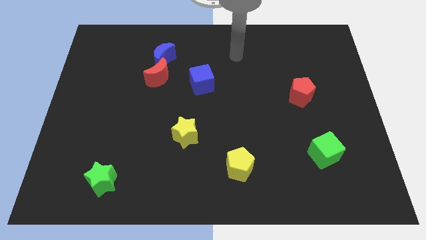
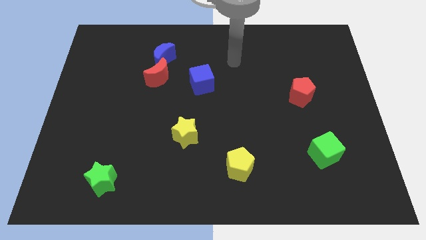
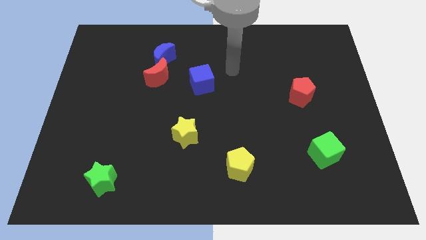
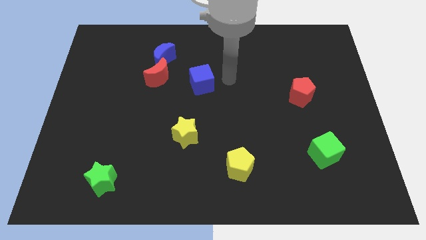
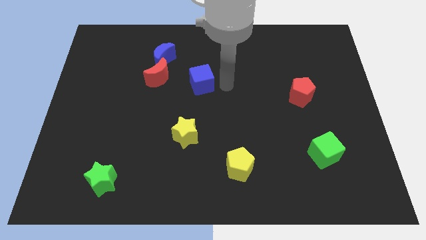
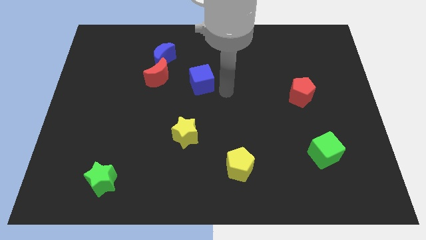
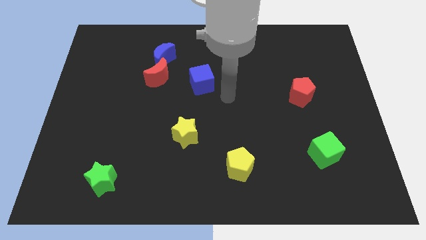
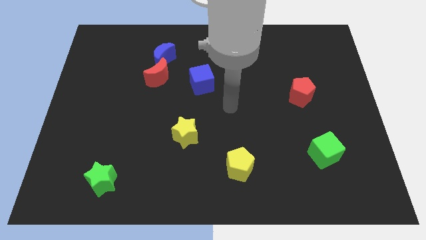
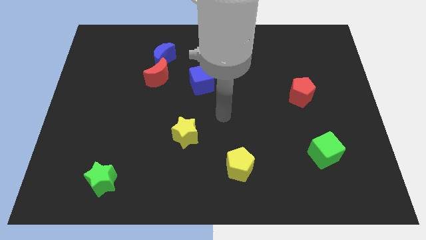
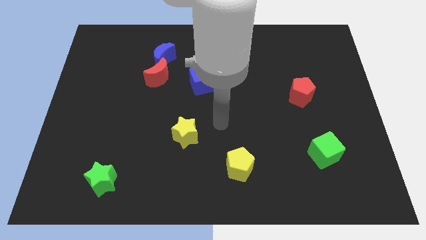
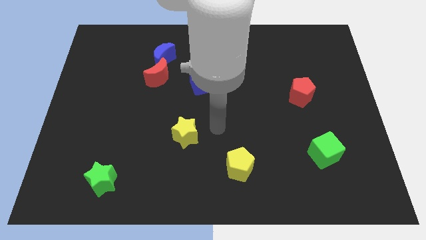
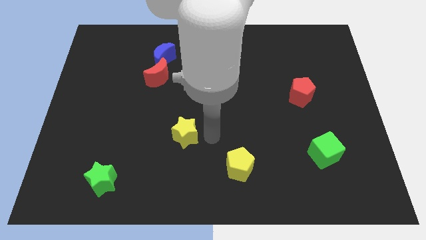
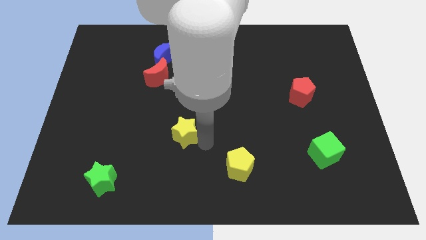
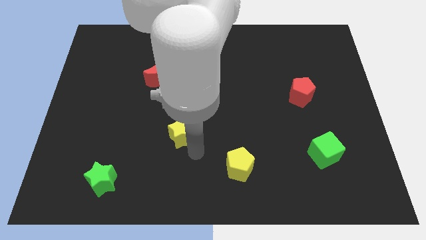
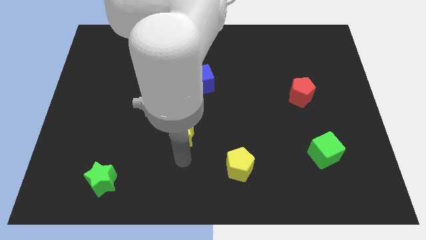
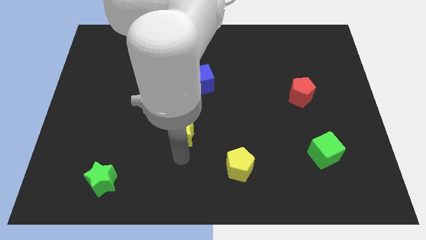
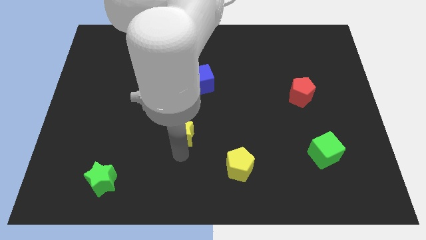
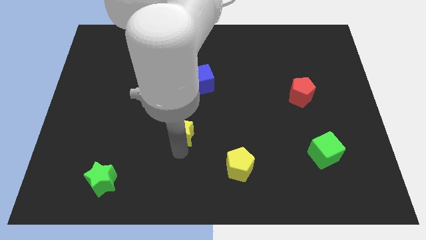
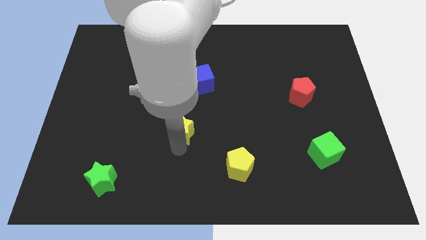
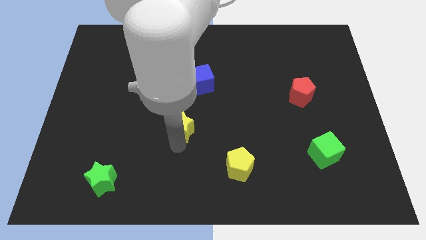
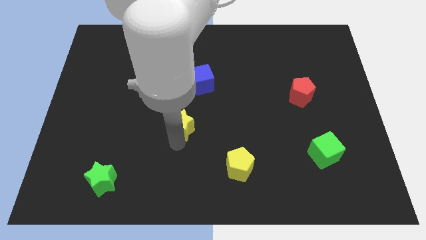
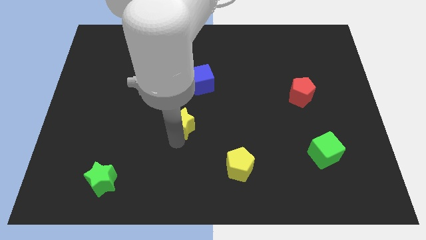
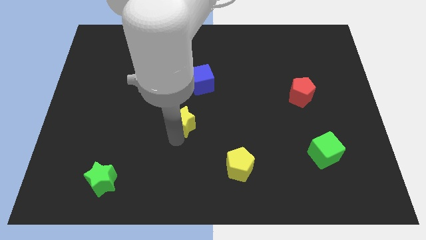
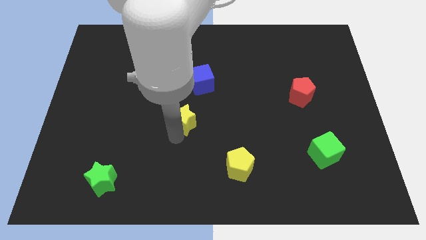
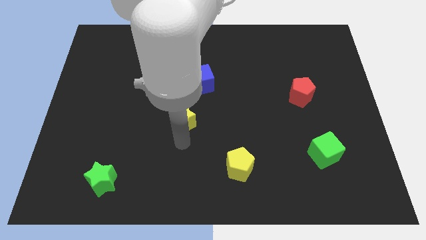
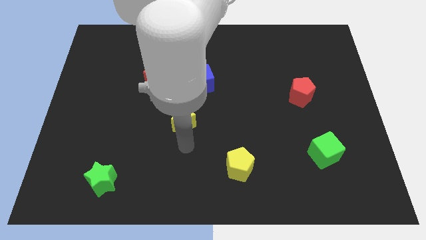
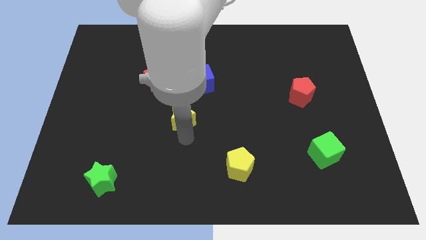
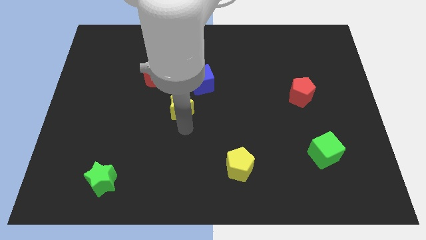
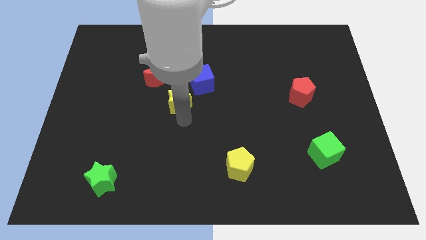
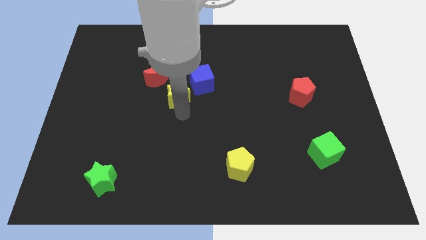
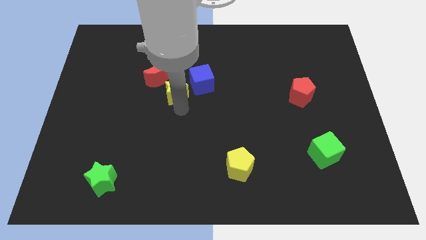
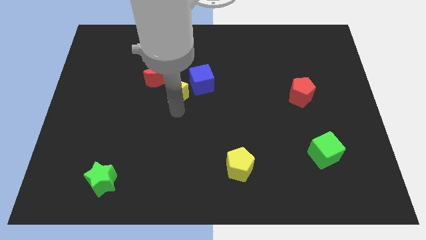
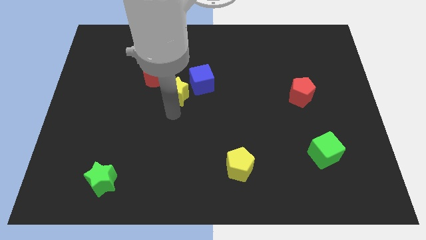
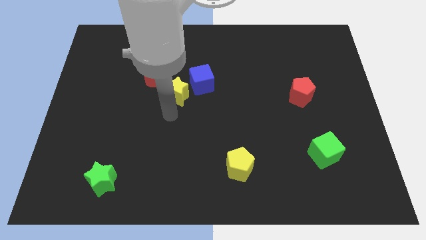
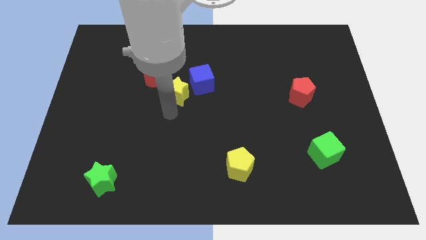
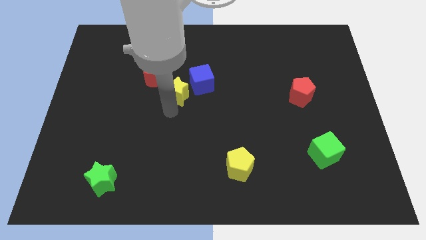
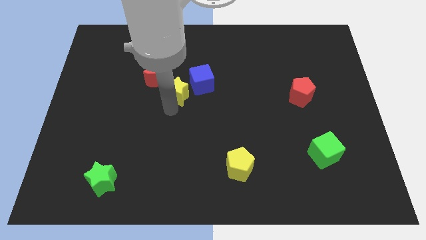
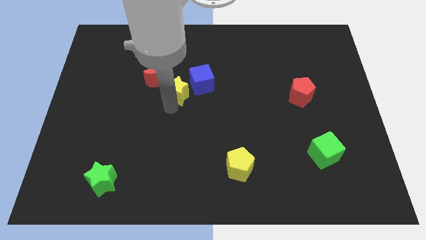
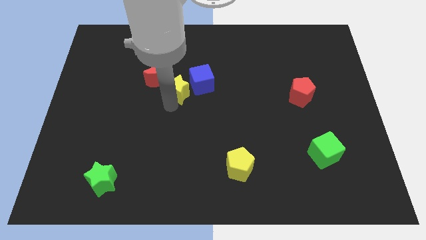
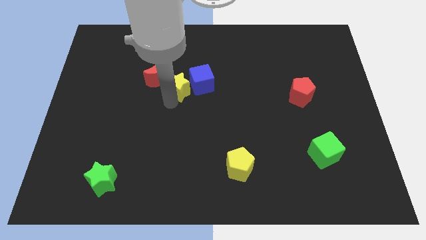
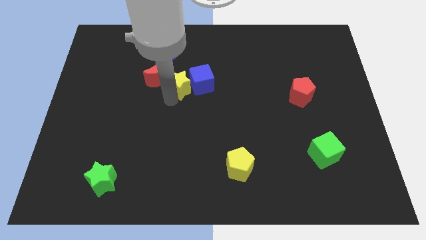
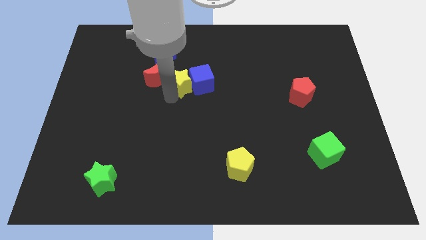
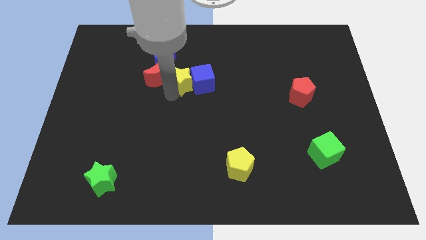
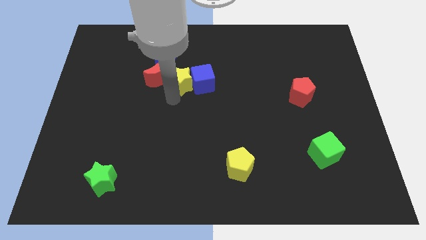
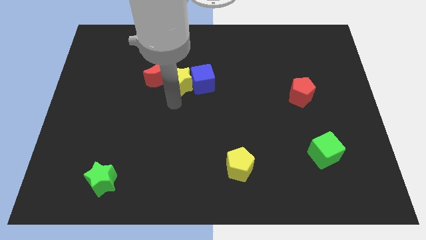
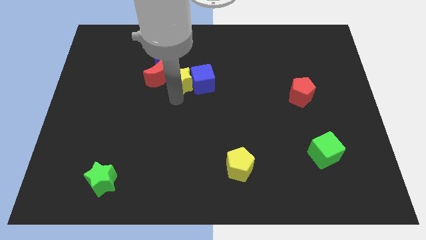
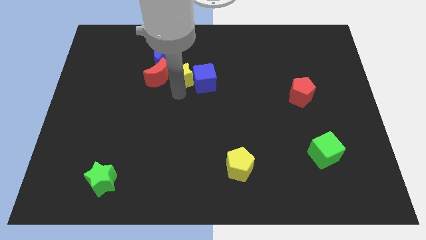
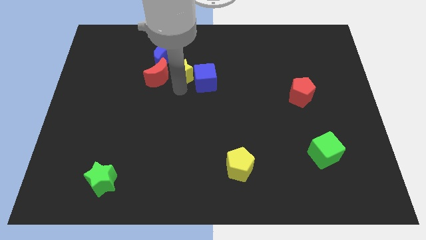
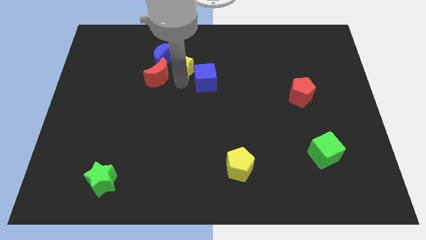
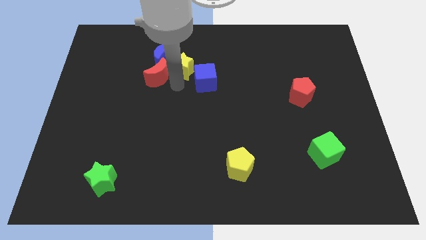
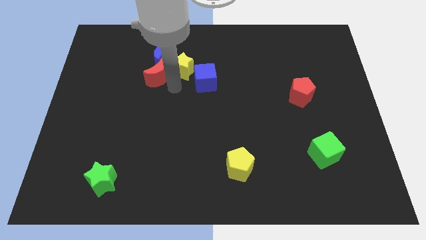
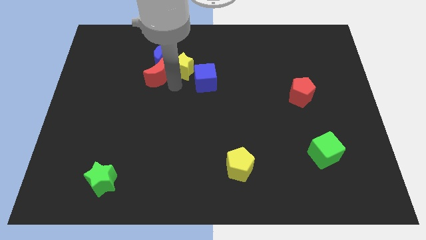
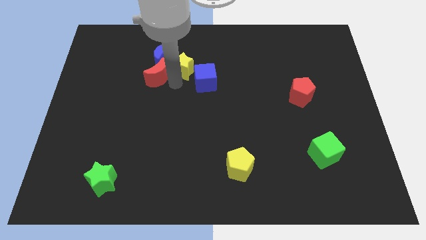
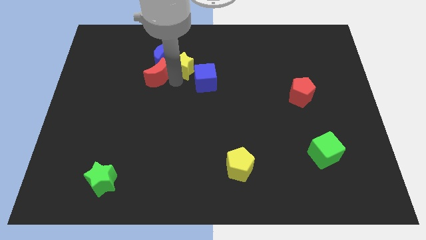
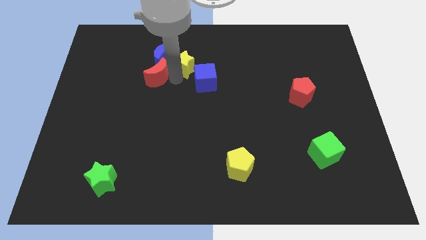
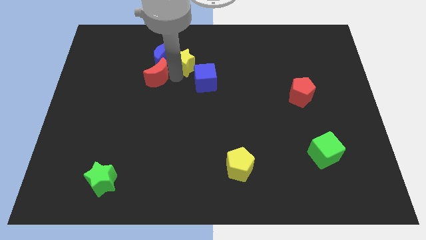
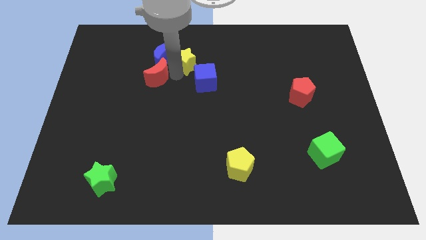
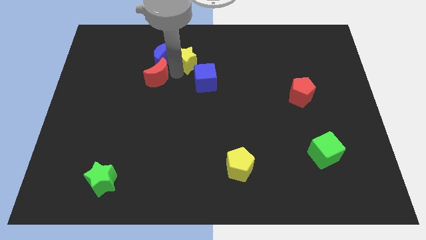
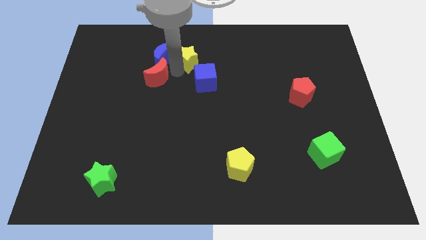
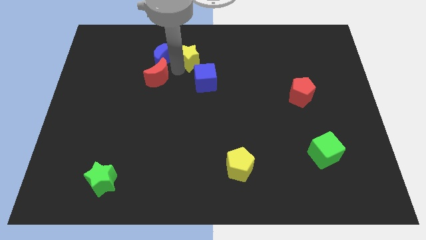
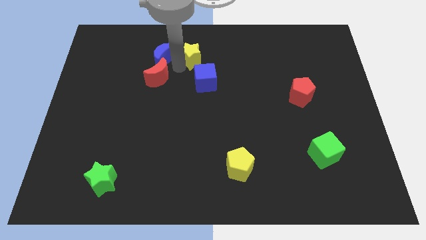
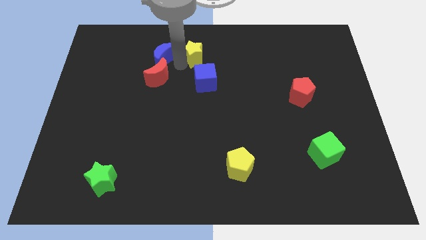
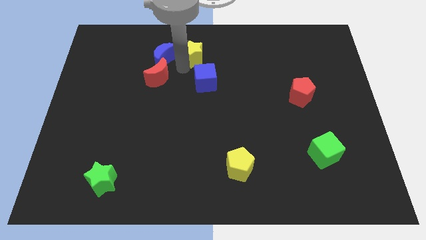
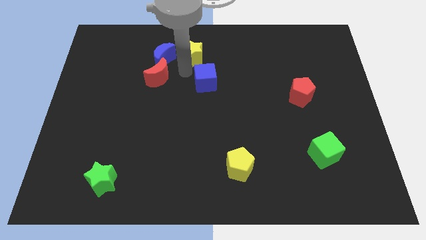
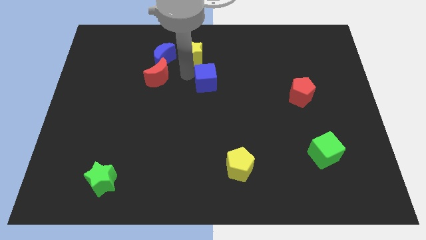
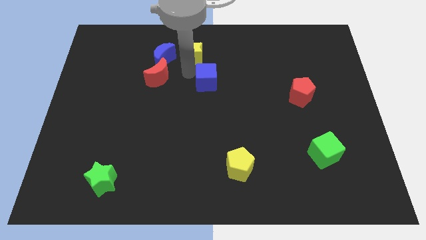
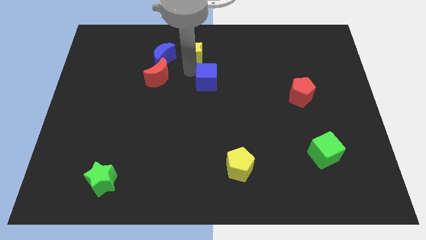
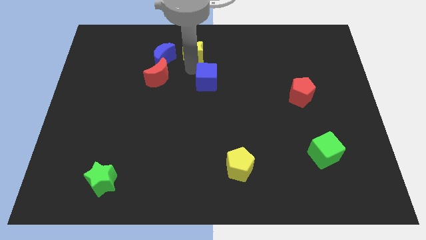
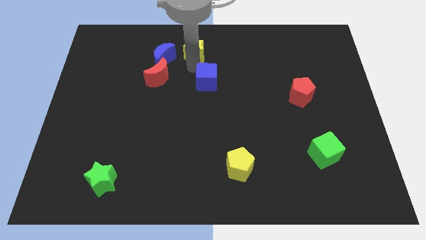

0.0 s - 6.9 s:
move the yellow star to the top side
